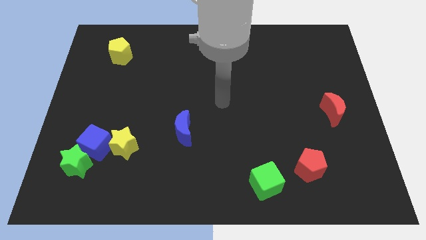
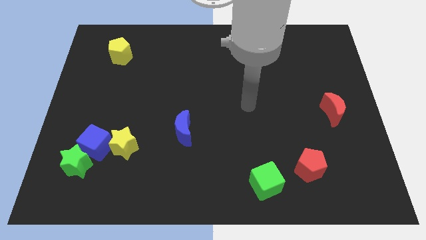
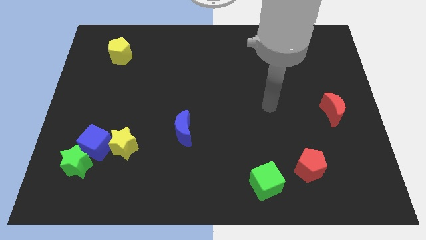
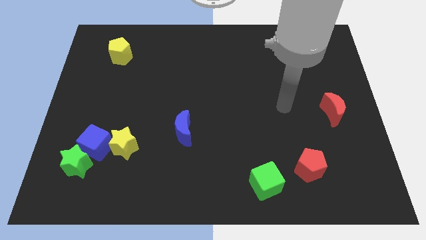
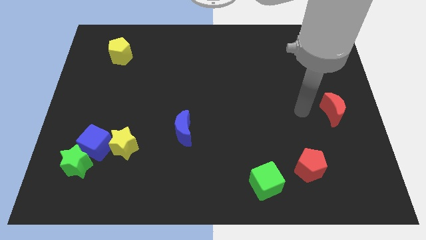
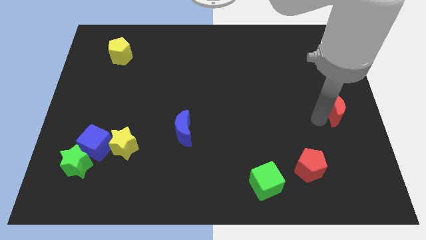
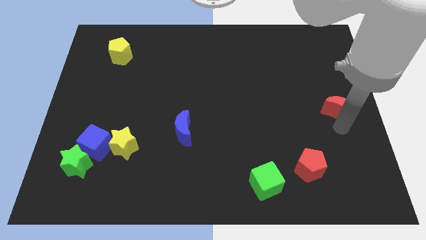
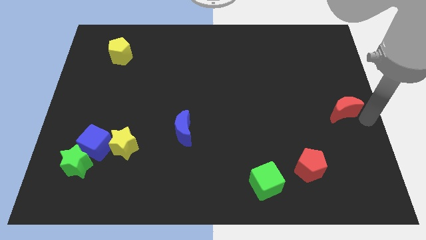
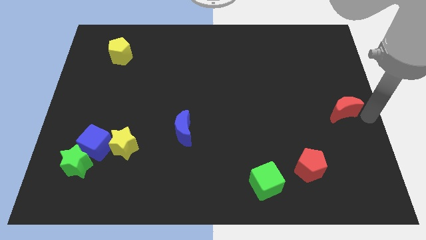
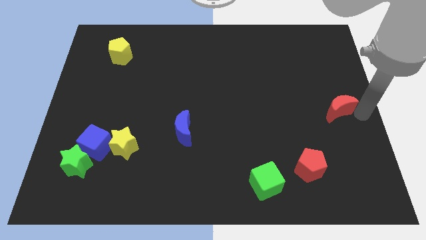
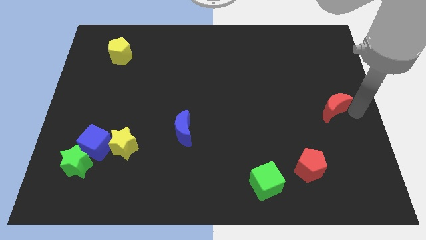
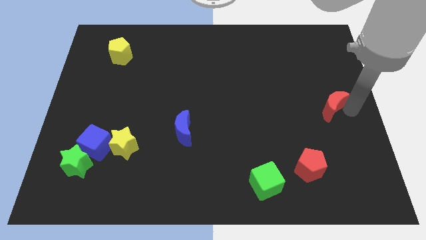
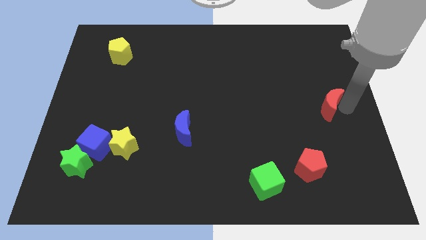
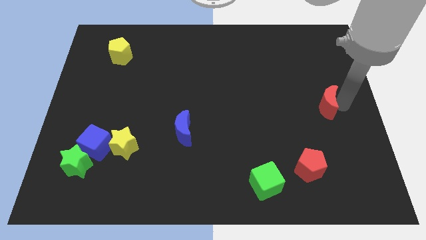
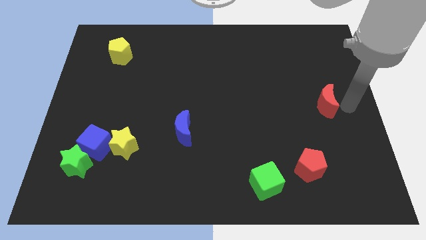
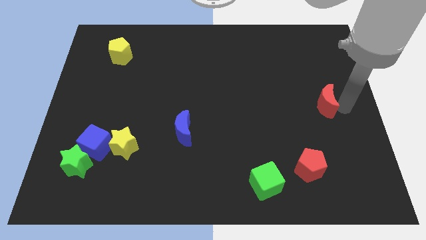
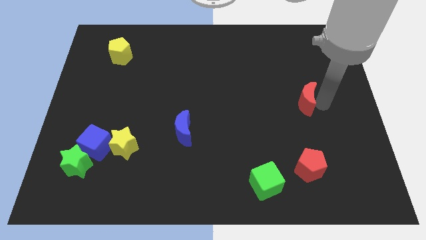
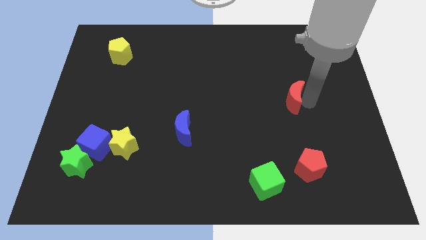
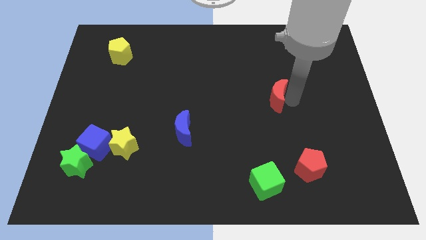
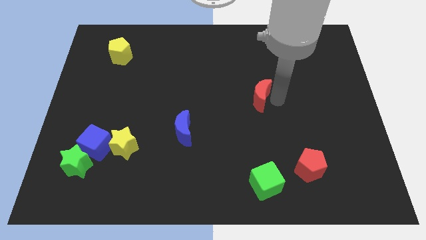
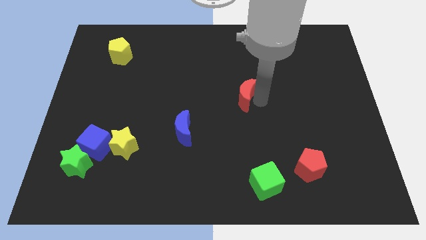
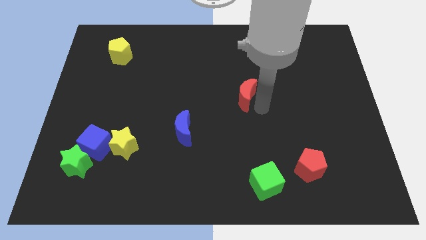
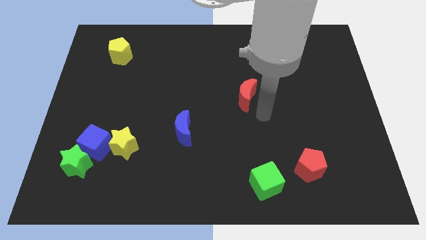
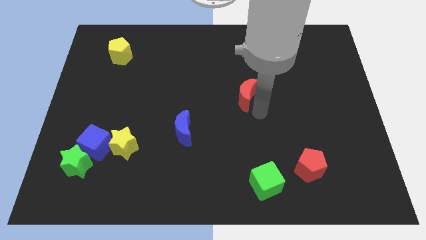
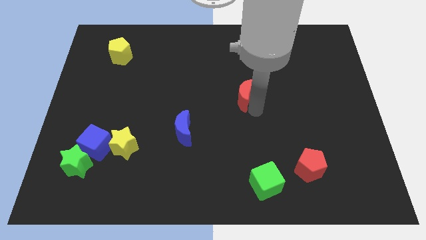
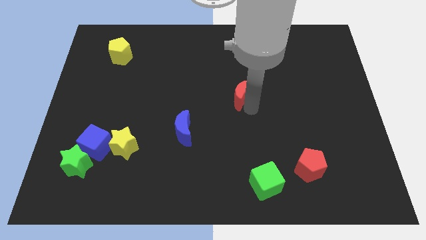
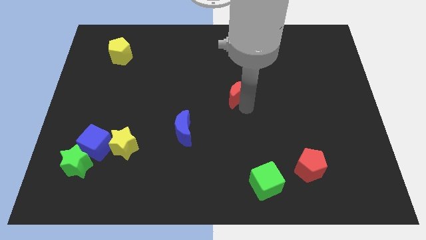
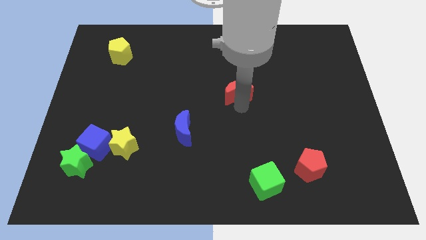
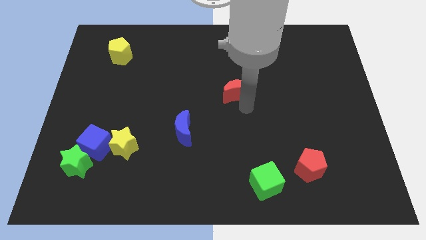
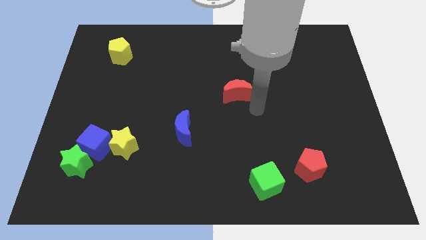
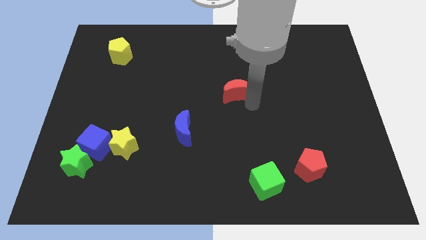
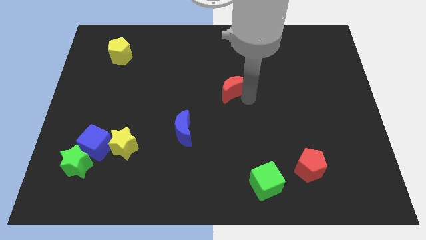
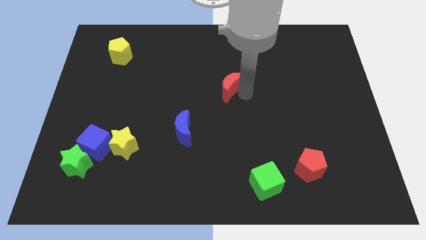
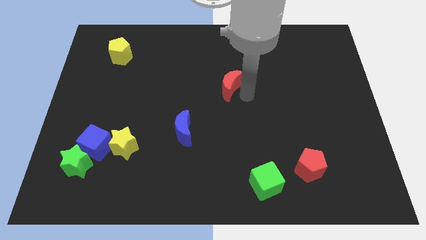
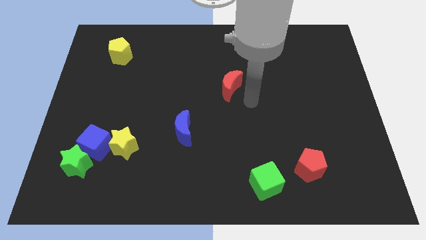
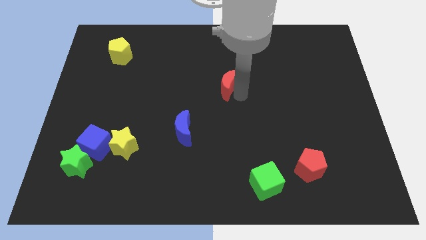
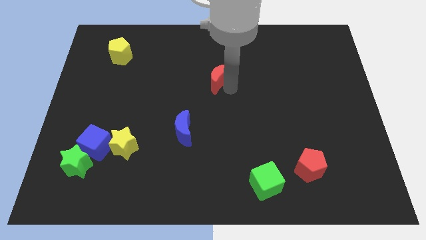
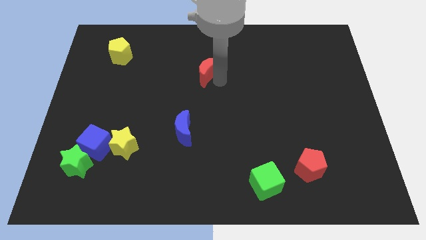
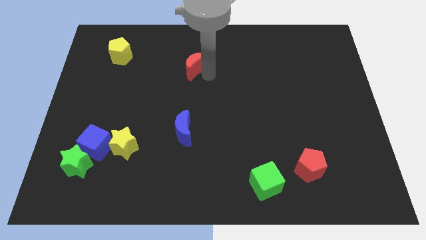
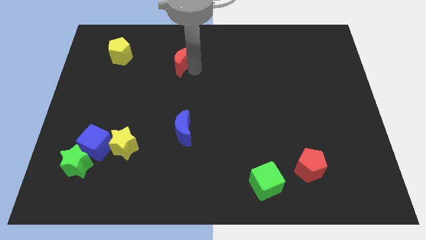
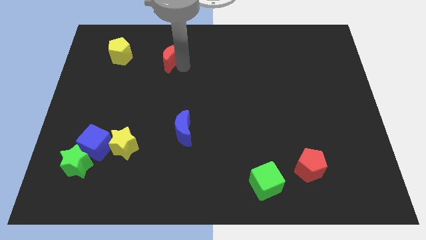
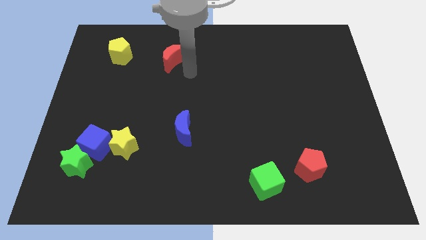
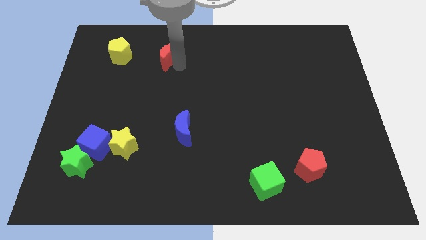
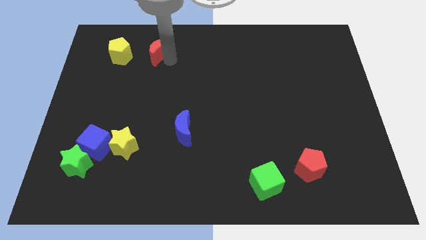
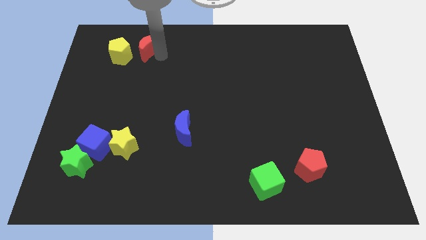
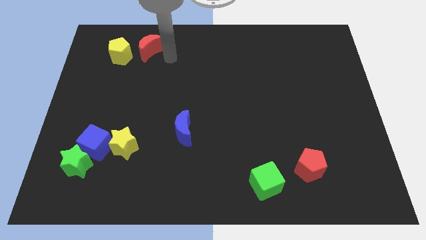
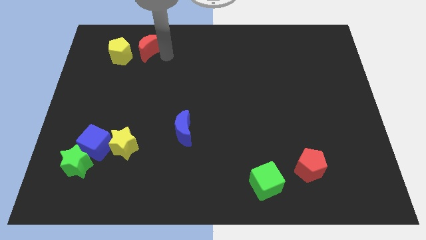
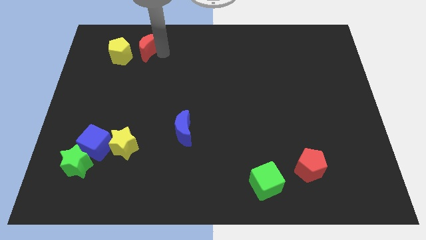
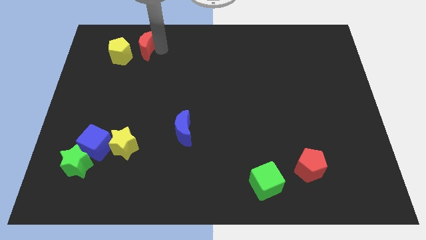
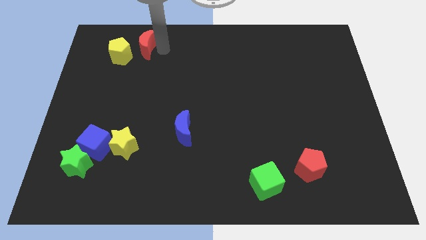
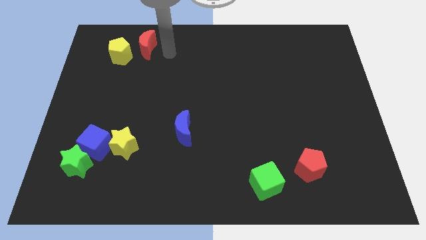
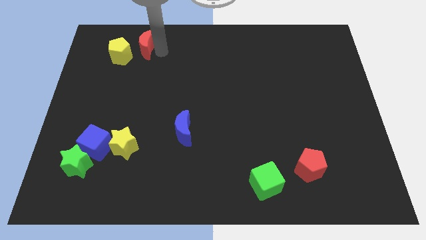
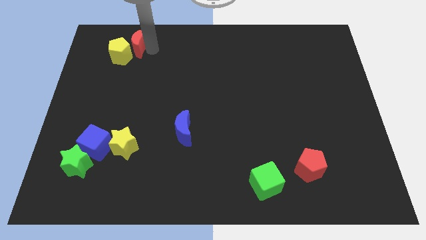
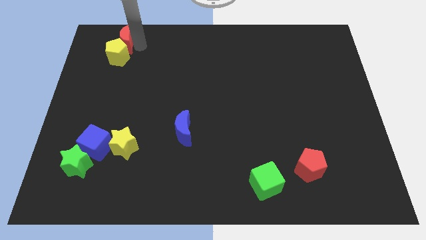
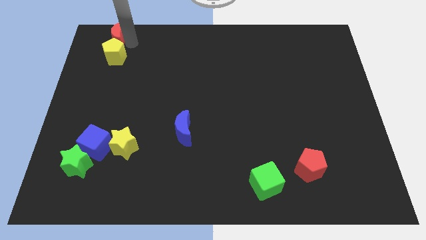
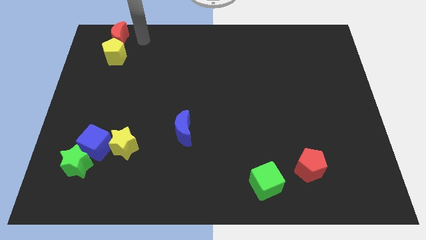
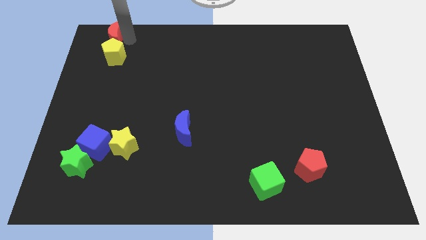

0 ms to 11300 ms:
slide the red moon to the top left corner

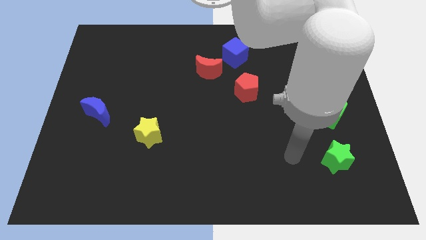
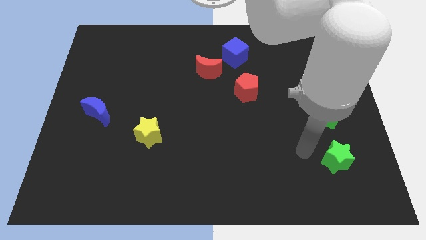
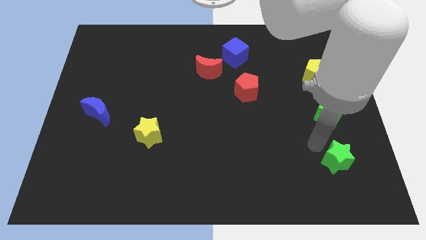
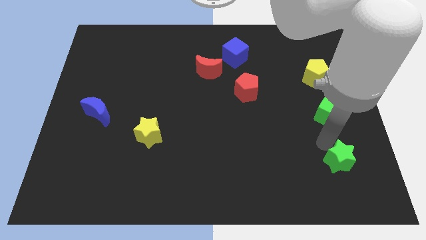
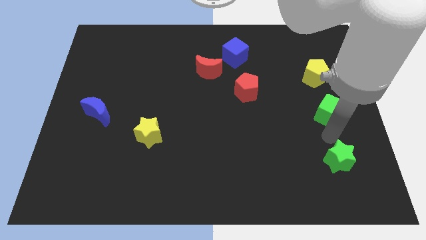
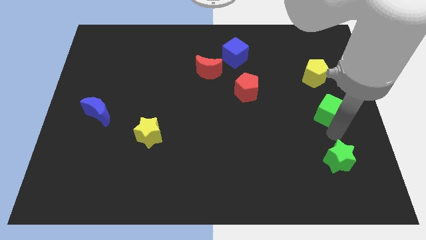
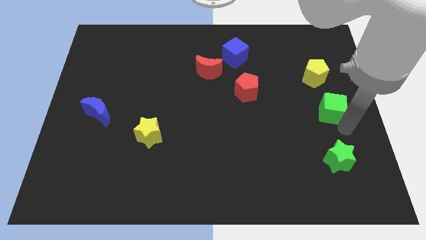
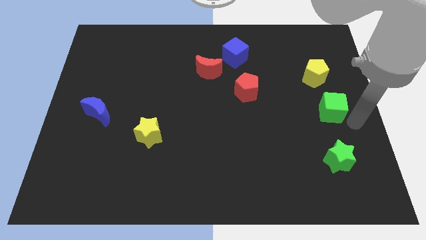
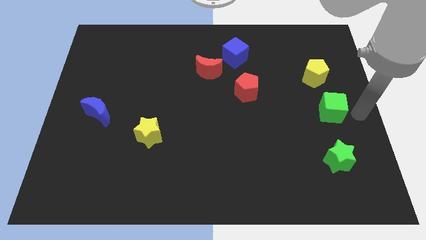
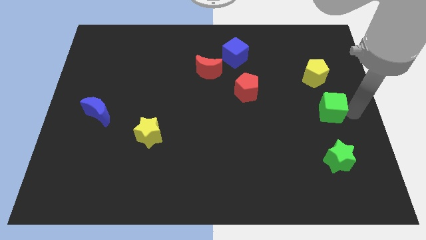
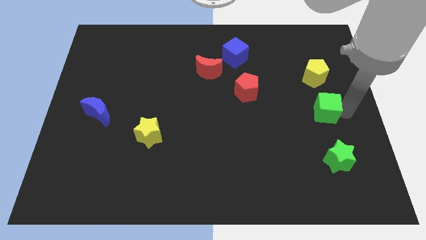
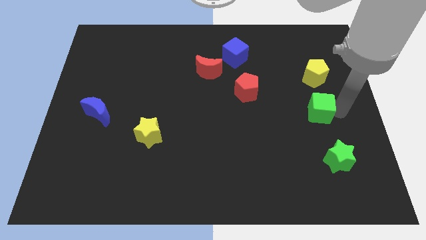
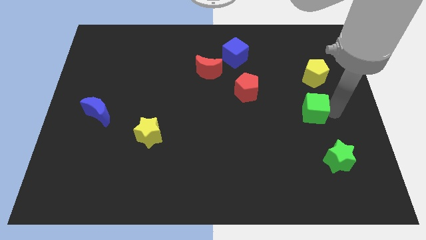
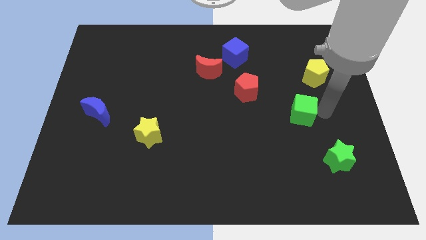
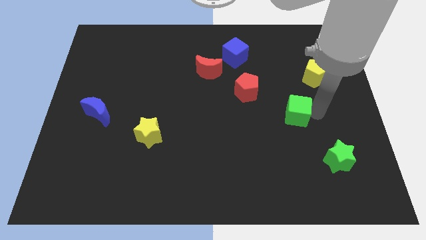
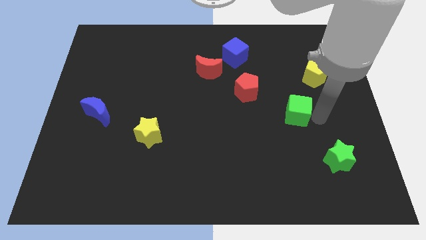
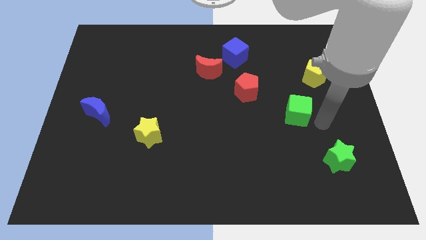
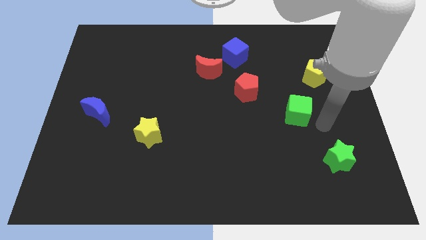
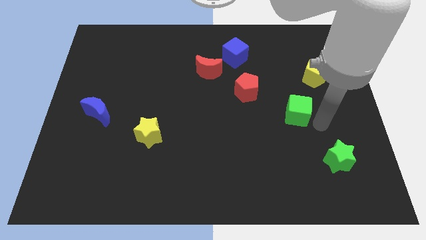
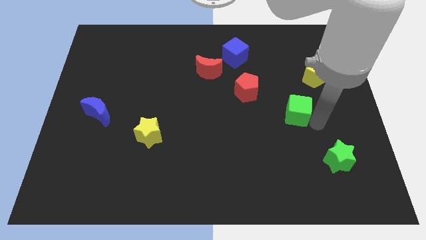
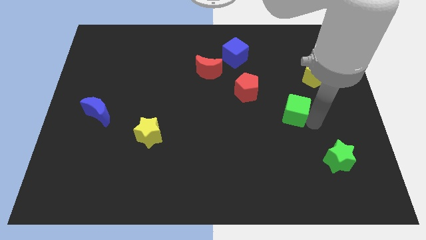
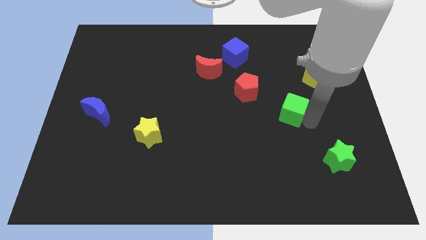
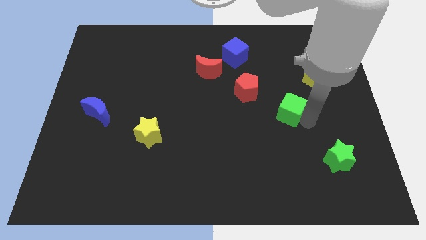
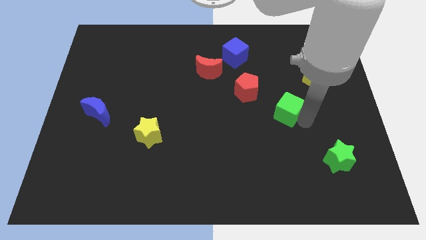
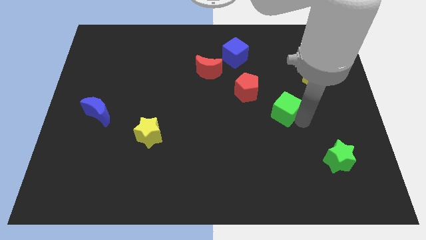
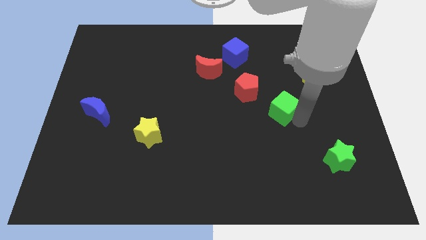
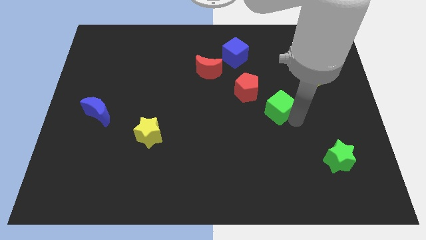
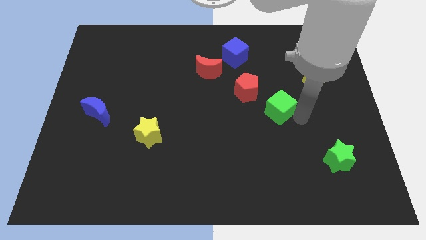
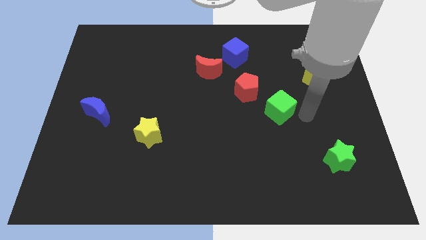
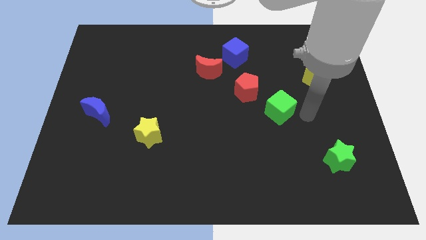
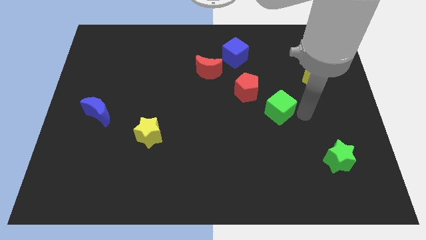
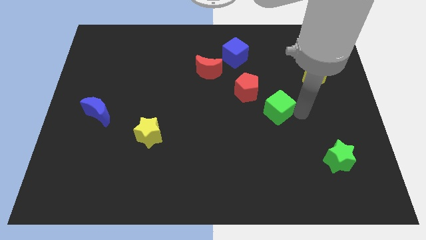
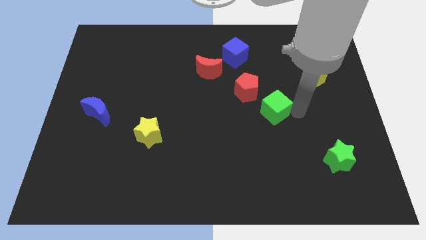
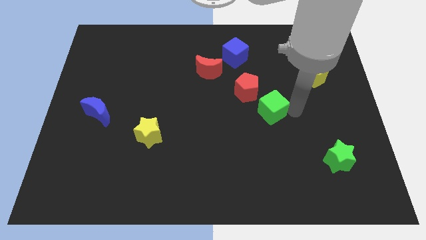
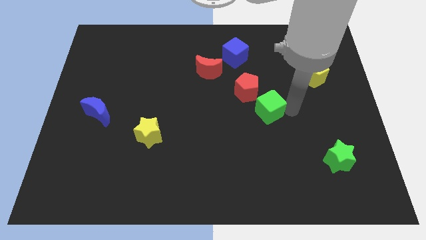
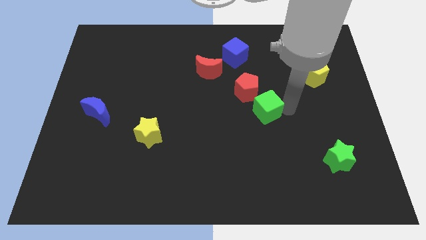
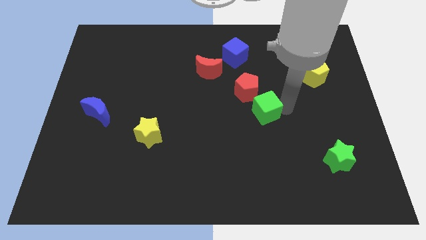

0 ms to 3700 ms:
move the green cube to the middle of the board
